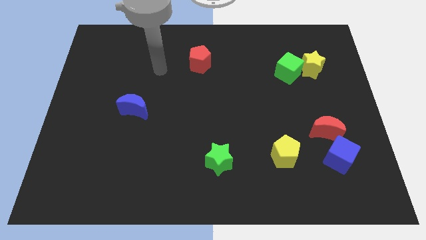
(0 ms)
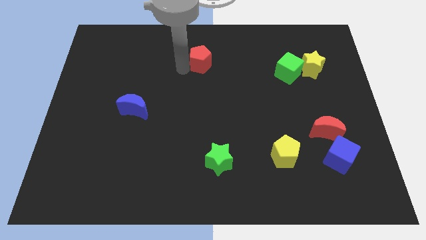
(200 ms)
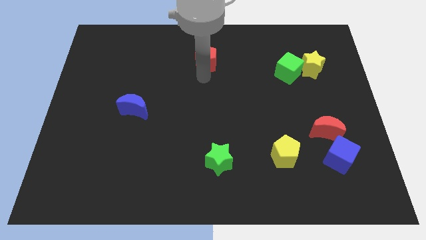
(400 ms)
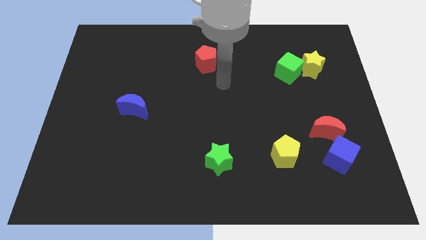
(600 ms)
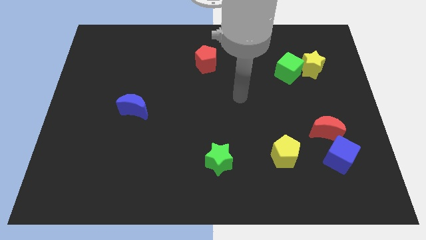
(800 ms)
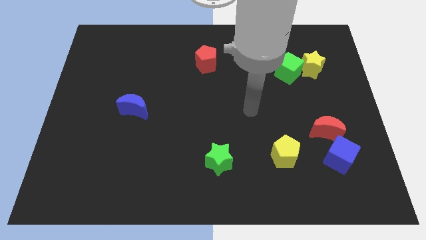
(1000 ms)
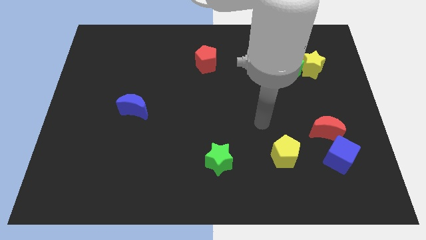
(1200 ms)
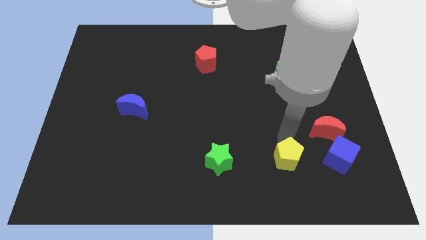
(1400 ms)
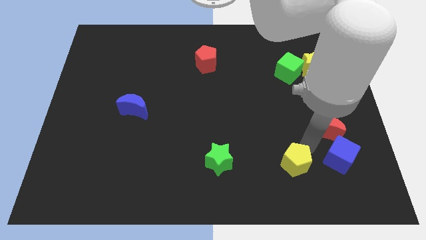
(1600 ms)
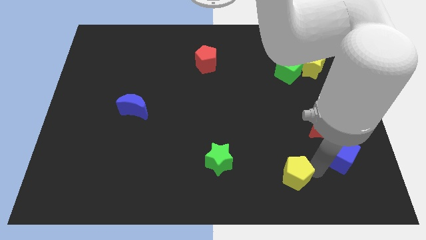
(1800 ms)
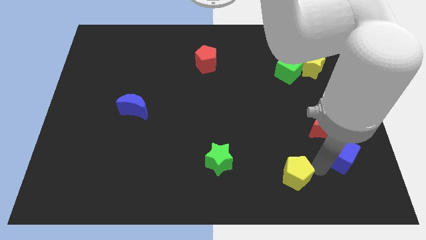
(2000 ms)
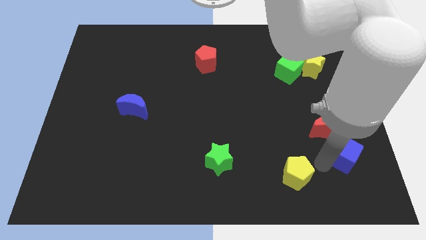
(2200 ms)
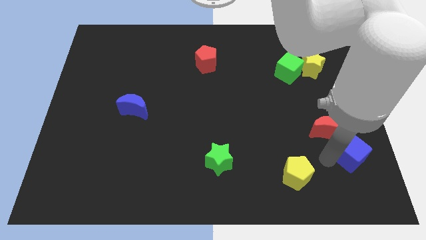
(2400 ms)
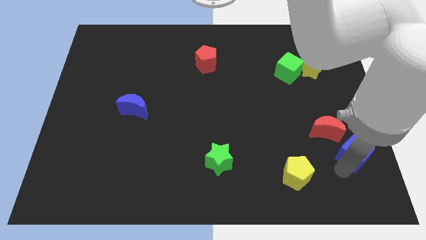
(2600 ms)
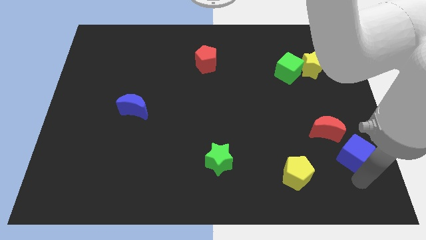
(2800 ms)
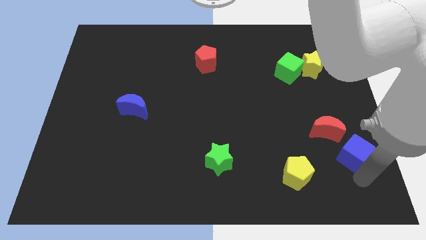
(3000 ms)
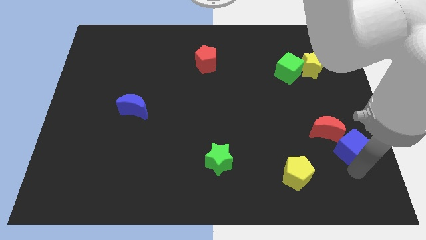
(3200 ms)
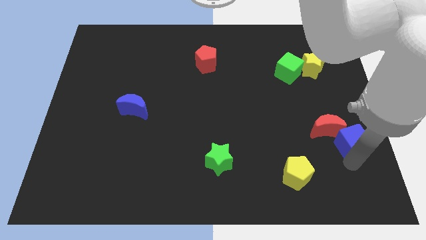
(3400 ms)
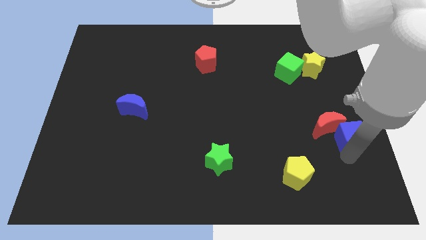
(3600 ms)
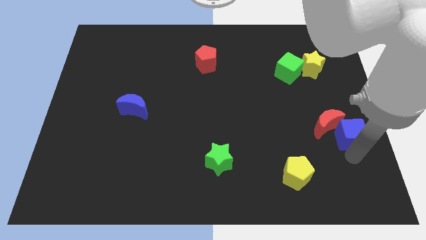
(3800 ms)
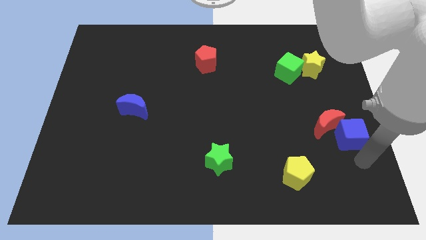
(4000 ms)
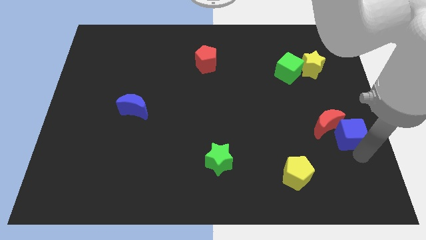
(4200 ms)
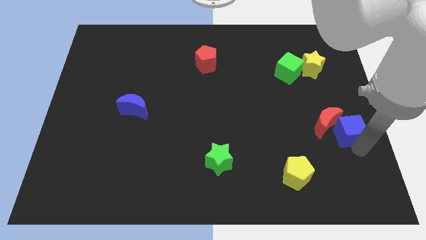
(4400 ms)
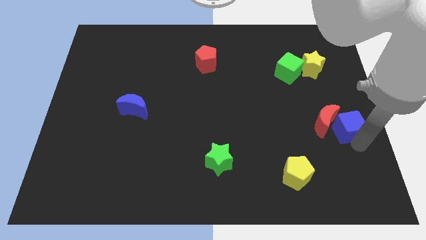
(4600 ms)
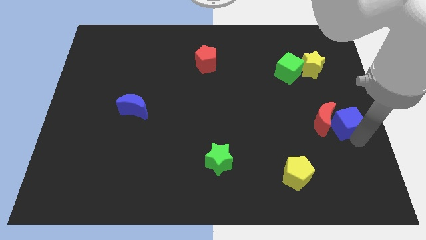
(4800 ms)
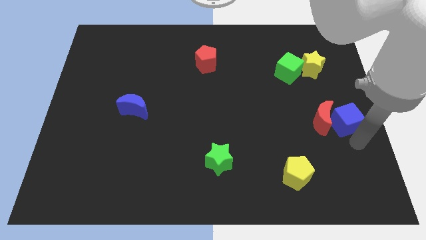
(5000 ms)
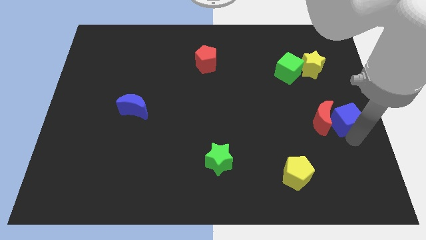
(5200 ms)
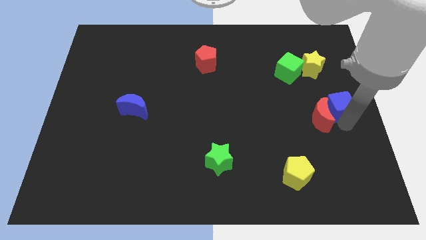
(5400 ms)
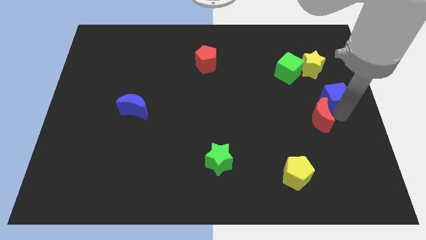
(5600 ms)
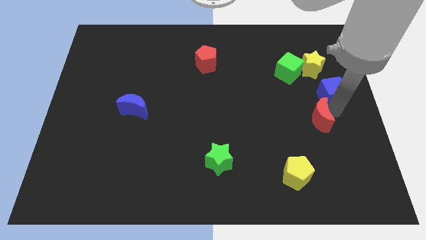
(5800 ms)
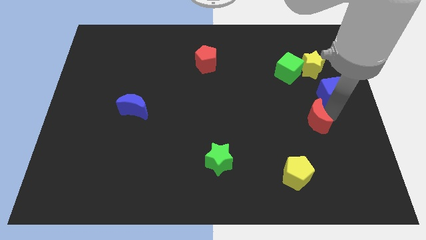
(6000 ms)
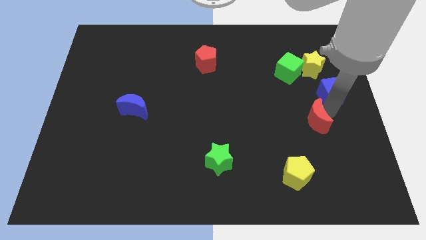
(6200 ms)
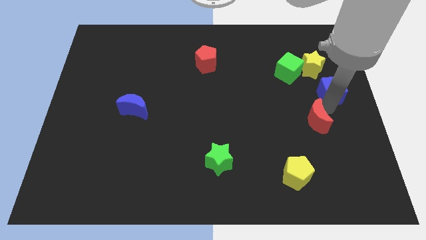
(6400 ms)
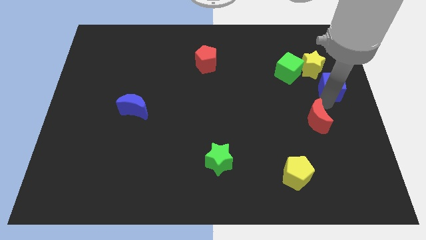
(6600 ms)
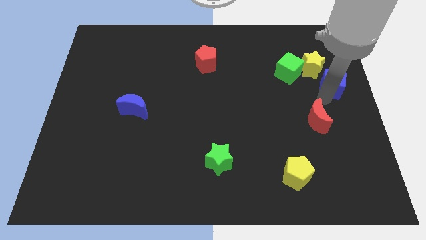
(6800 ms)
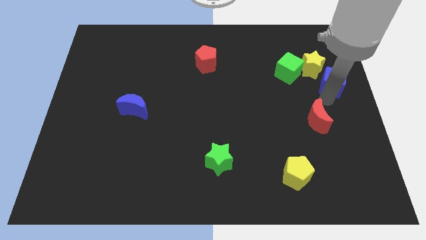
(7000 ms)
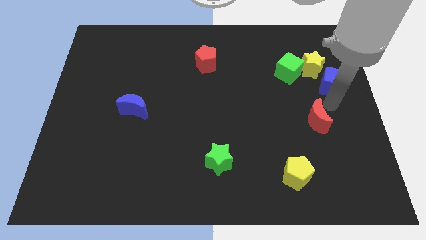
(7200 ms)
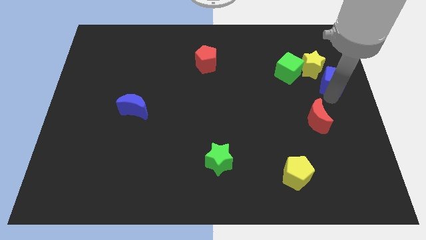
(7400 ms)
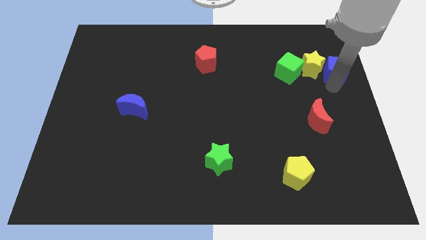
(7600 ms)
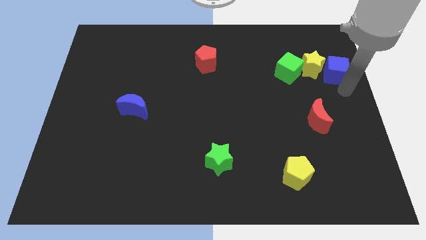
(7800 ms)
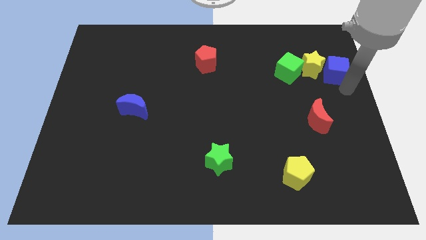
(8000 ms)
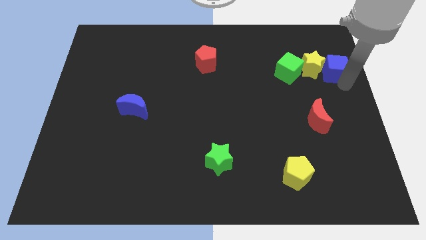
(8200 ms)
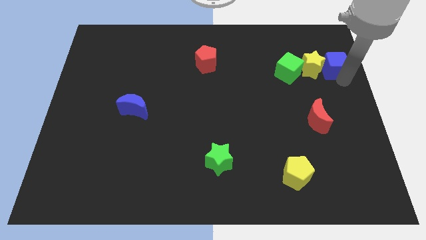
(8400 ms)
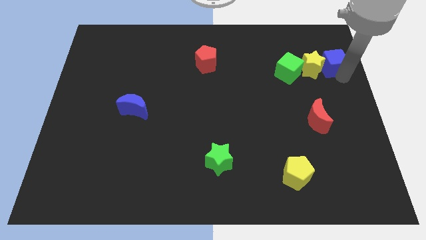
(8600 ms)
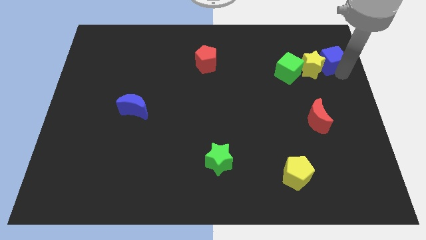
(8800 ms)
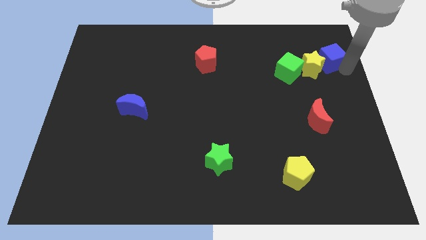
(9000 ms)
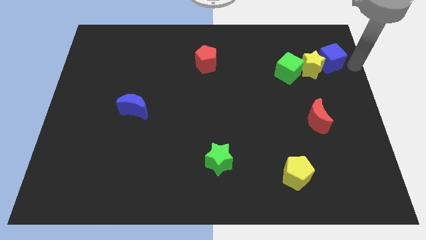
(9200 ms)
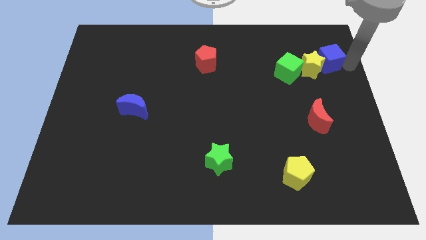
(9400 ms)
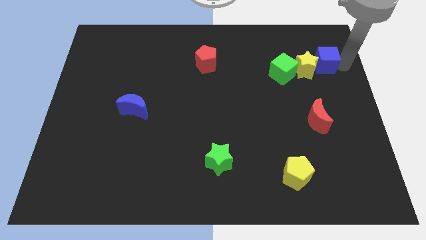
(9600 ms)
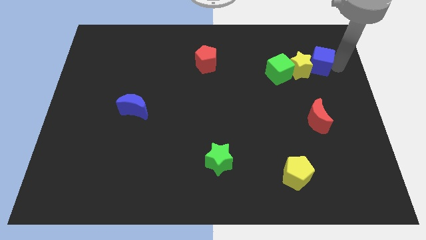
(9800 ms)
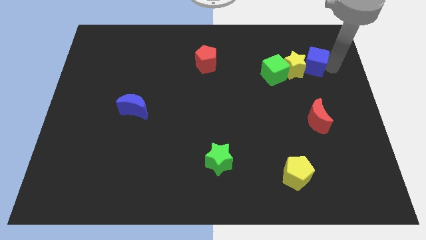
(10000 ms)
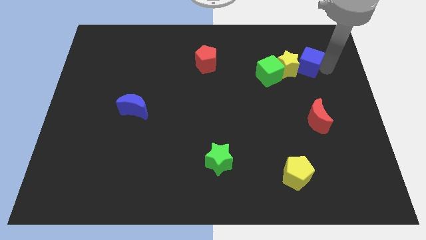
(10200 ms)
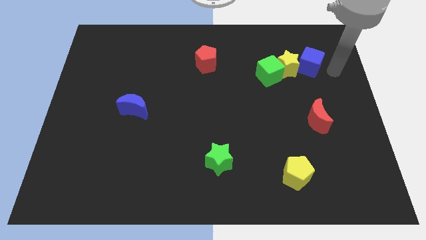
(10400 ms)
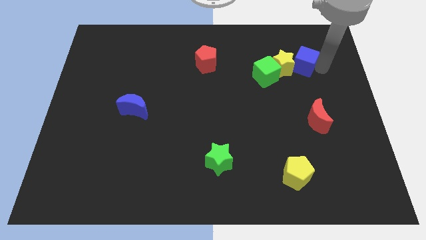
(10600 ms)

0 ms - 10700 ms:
slide the blue cube to the top right of the green cube

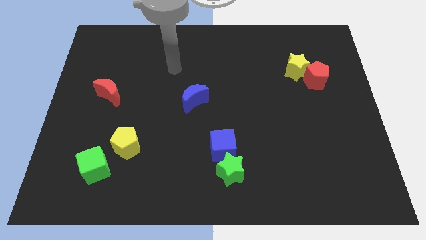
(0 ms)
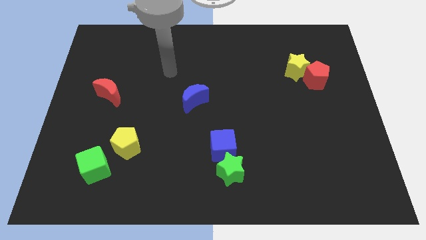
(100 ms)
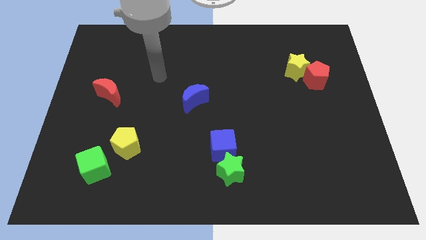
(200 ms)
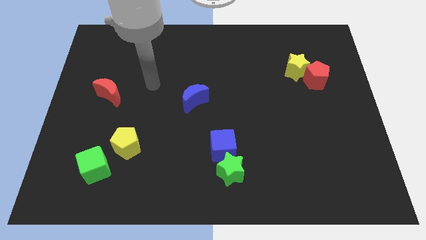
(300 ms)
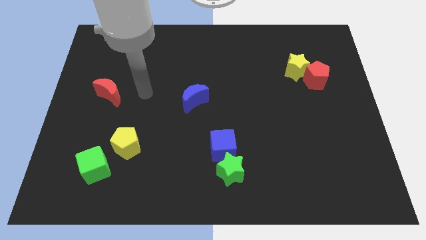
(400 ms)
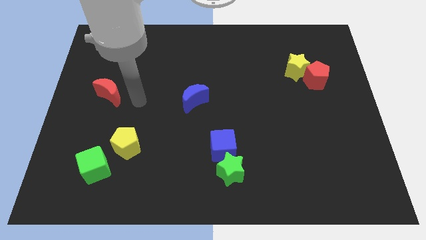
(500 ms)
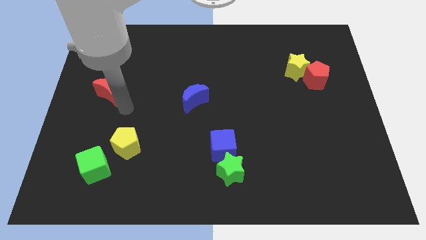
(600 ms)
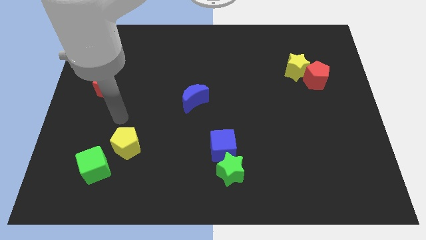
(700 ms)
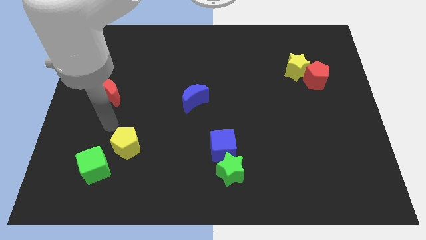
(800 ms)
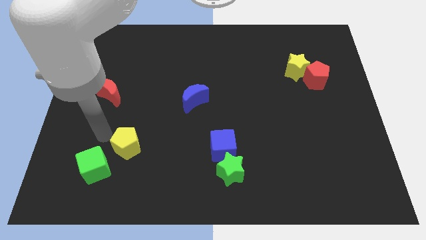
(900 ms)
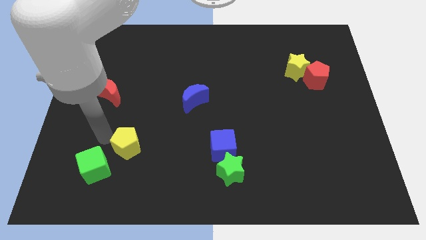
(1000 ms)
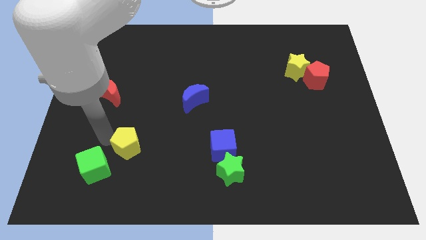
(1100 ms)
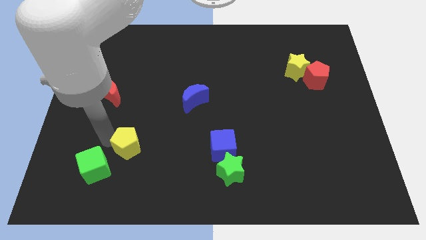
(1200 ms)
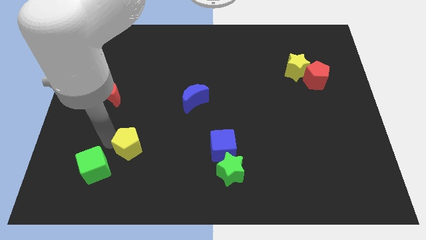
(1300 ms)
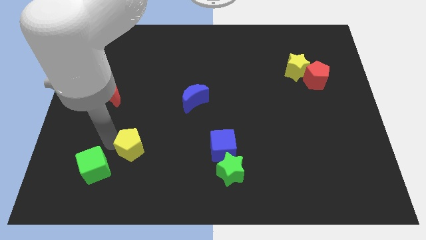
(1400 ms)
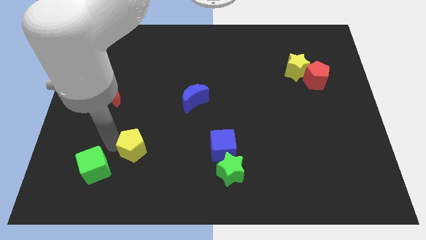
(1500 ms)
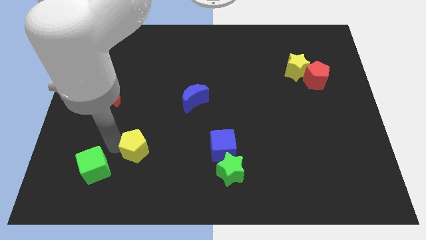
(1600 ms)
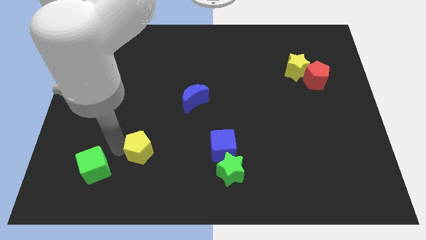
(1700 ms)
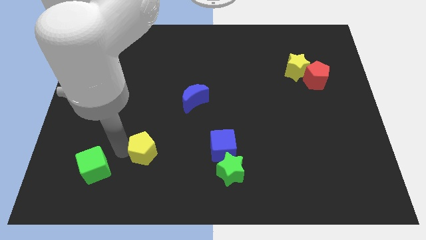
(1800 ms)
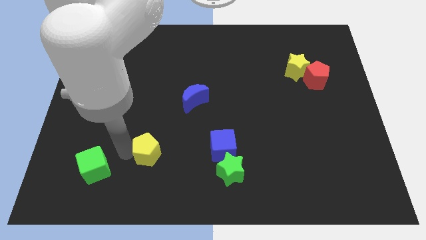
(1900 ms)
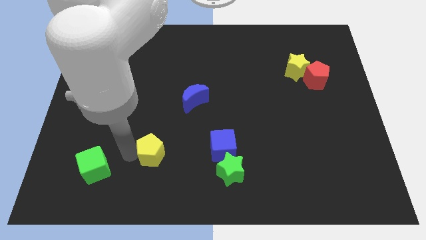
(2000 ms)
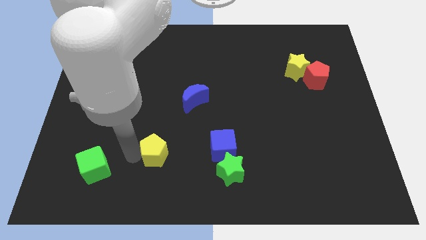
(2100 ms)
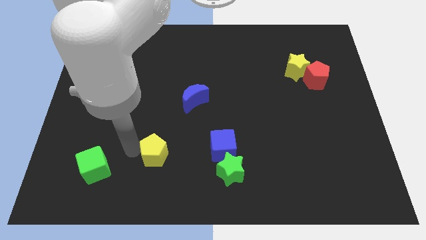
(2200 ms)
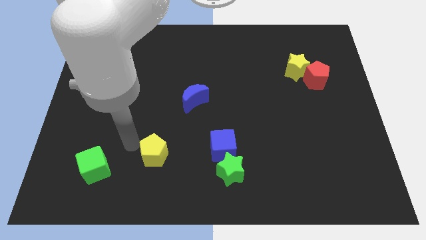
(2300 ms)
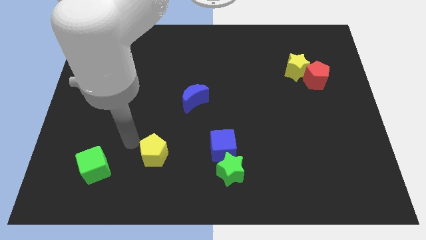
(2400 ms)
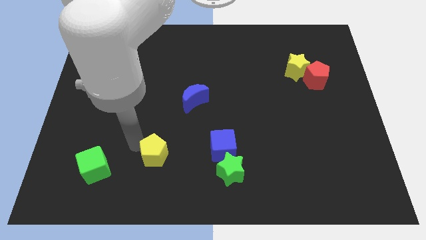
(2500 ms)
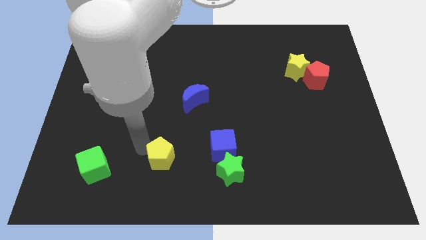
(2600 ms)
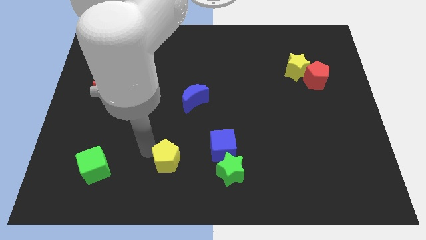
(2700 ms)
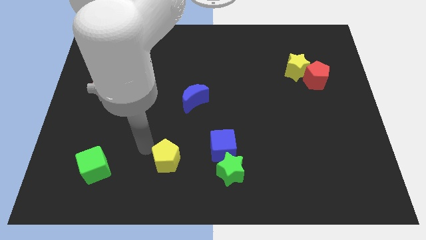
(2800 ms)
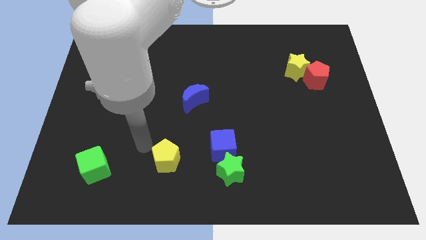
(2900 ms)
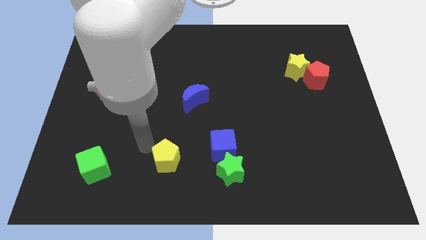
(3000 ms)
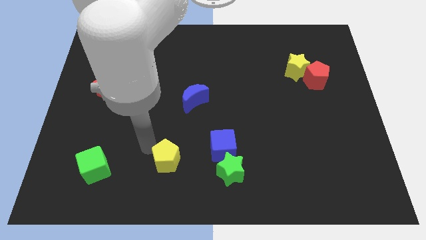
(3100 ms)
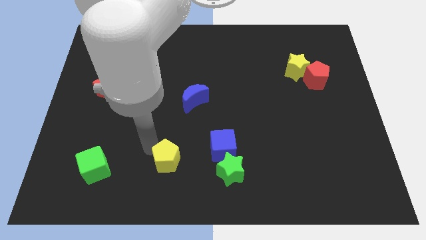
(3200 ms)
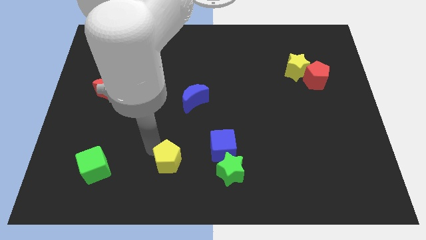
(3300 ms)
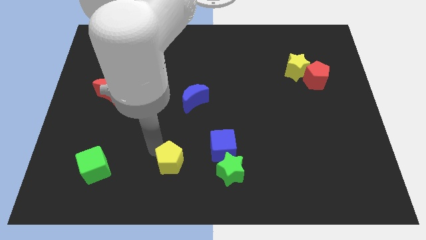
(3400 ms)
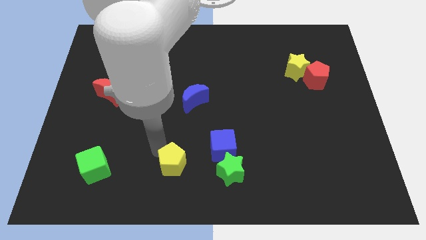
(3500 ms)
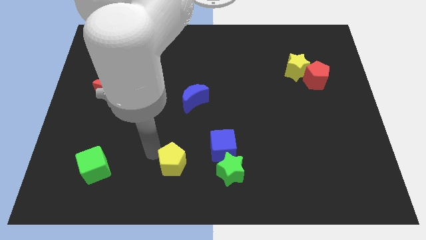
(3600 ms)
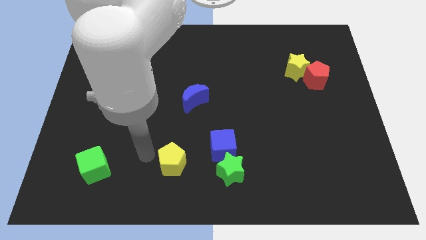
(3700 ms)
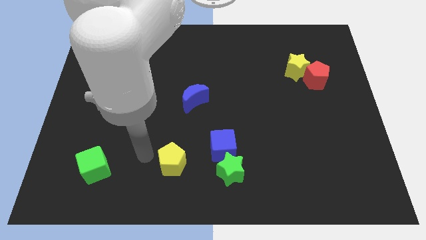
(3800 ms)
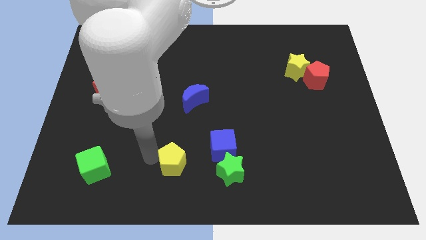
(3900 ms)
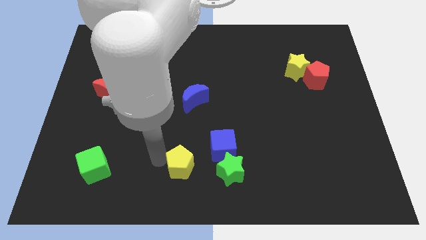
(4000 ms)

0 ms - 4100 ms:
slide the yellow pentagon diagonally down and to the left of the blue cube
